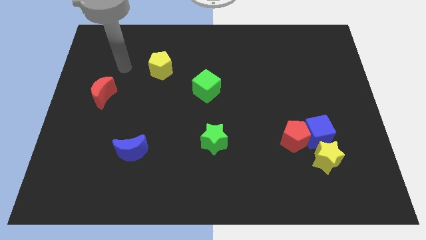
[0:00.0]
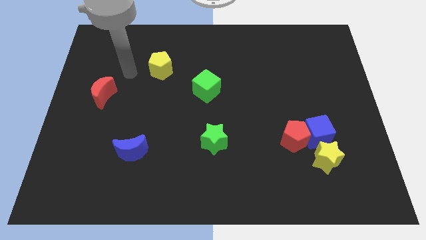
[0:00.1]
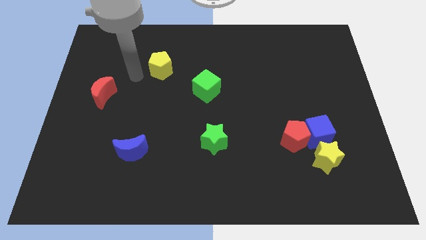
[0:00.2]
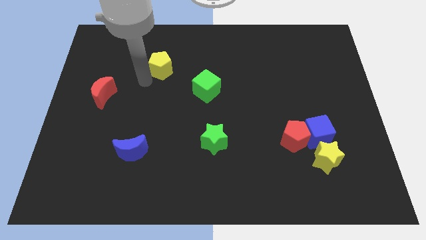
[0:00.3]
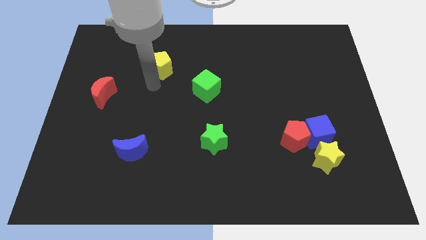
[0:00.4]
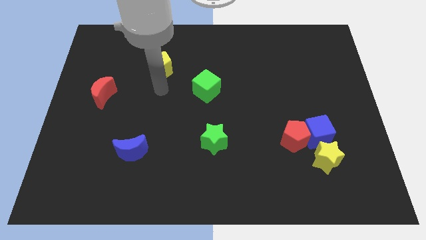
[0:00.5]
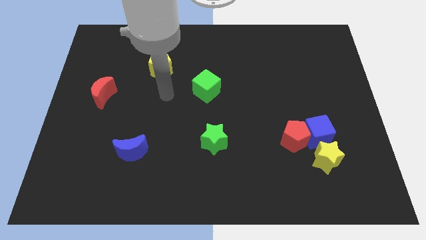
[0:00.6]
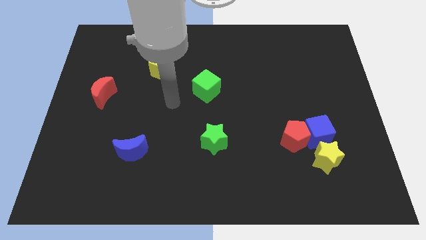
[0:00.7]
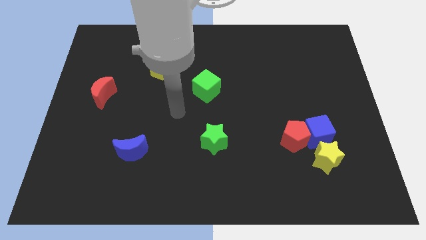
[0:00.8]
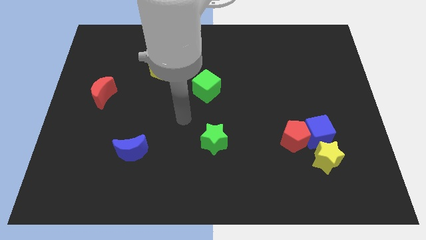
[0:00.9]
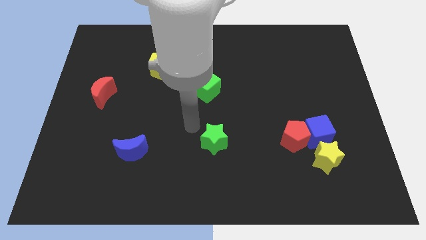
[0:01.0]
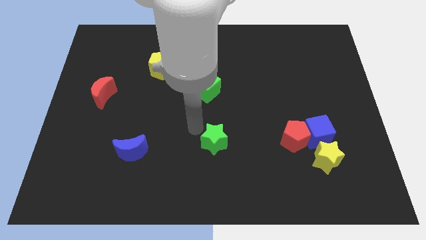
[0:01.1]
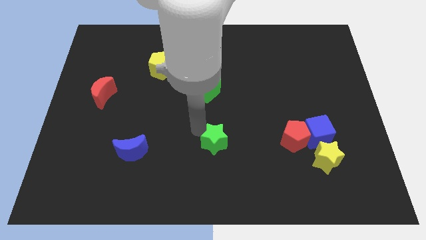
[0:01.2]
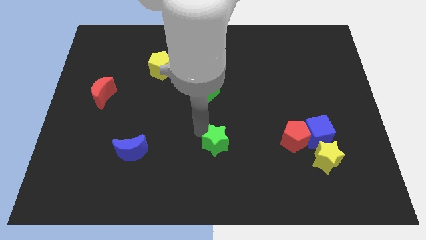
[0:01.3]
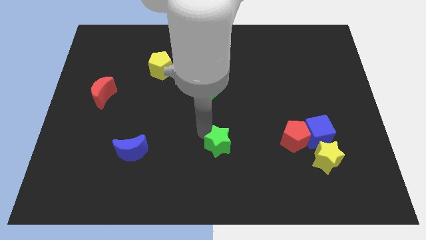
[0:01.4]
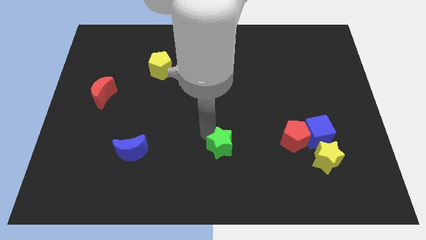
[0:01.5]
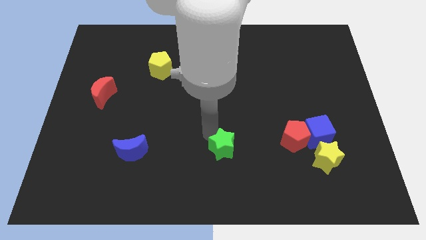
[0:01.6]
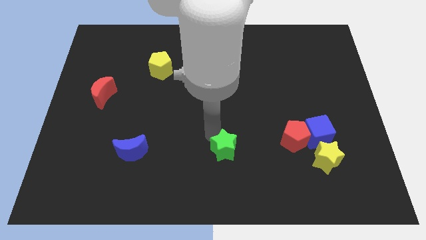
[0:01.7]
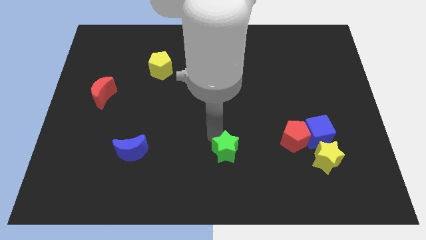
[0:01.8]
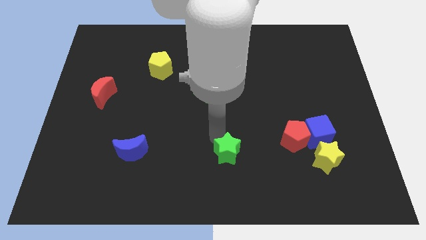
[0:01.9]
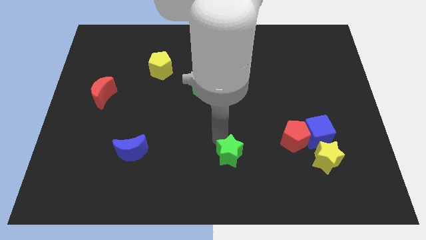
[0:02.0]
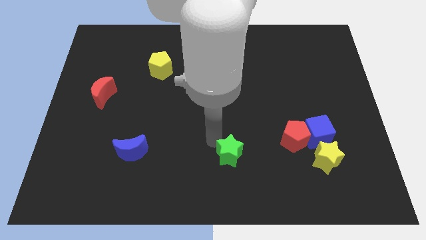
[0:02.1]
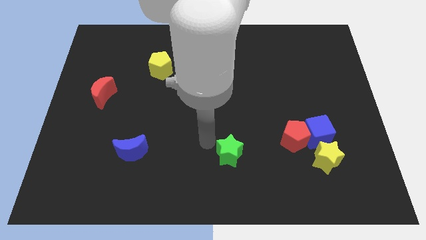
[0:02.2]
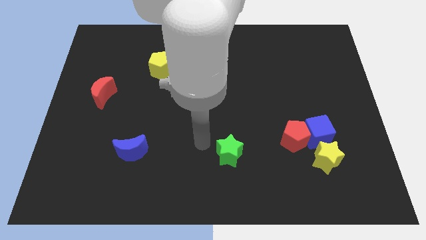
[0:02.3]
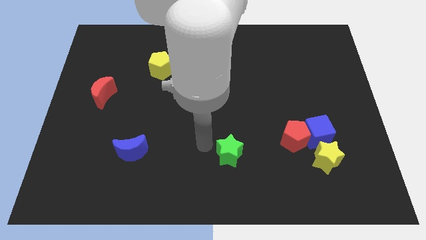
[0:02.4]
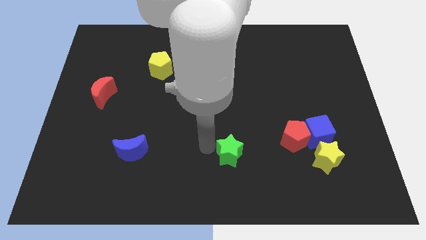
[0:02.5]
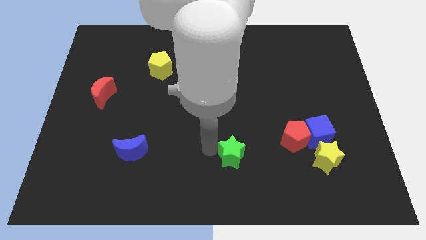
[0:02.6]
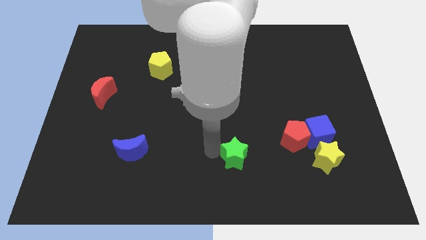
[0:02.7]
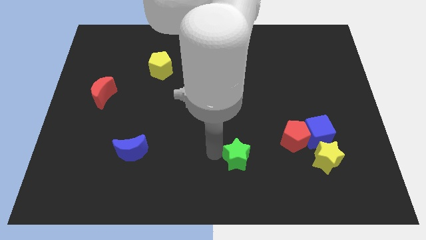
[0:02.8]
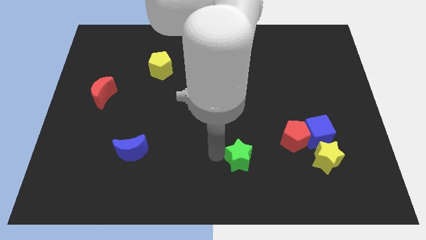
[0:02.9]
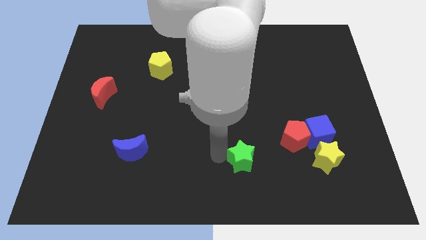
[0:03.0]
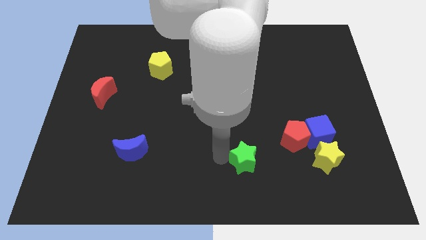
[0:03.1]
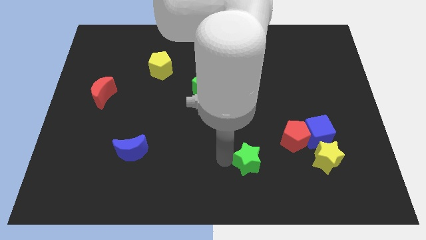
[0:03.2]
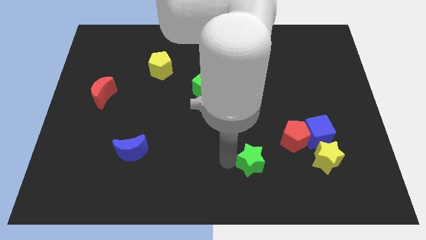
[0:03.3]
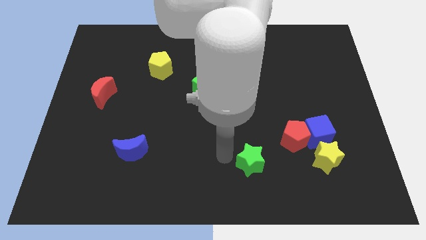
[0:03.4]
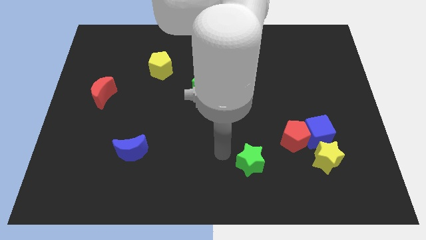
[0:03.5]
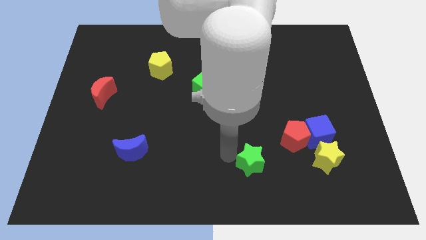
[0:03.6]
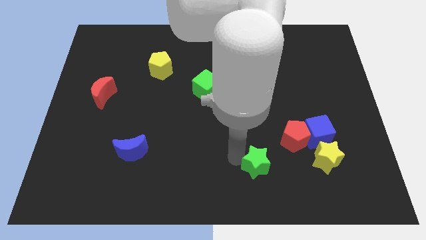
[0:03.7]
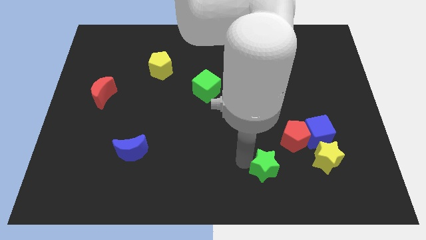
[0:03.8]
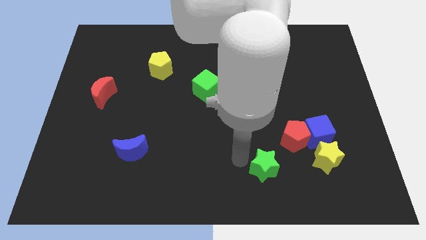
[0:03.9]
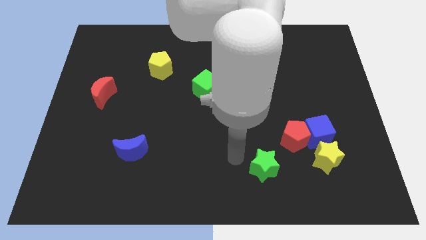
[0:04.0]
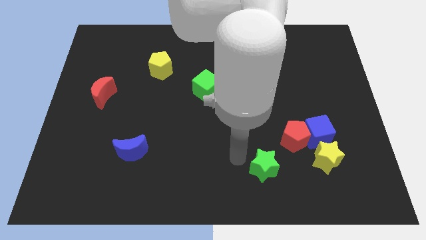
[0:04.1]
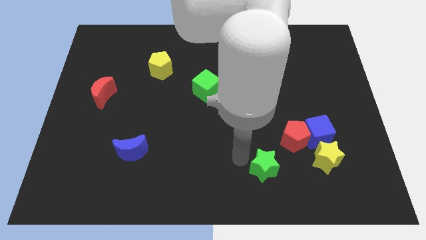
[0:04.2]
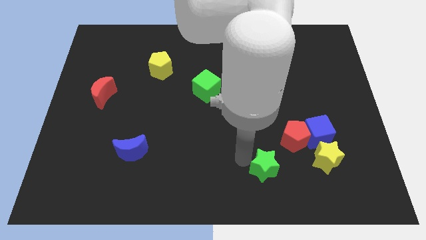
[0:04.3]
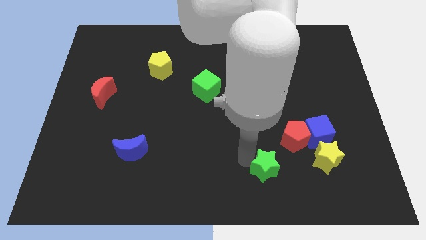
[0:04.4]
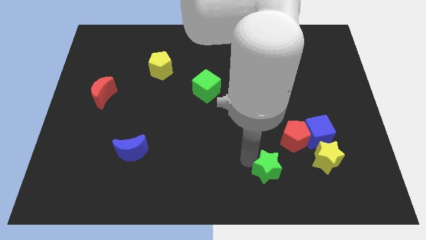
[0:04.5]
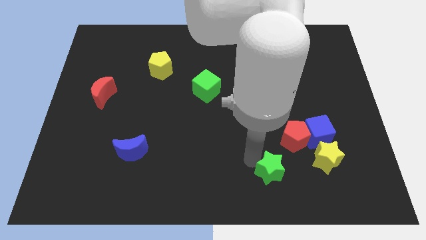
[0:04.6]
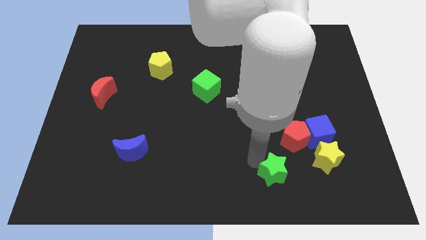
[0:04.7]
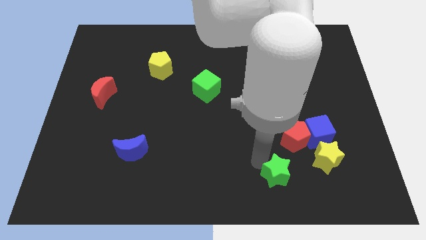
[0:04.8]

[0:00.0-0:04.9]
put the green star to the bottom side of the red pentagon

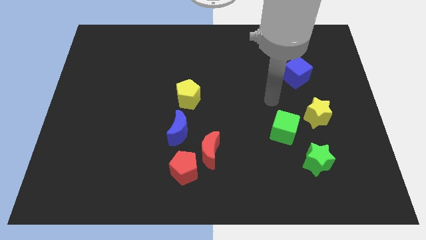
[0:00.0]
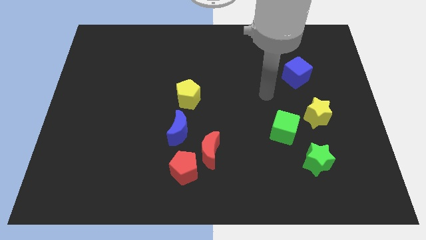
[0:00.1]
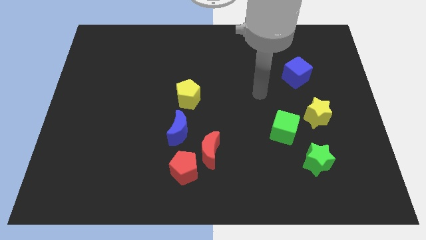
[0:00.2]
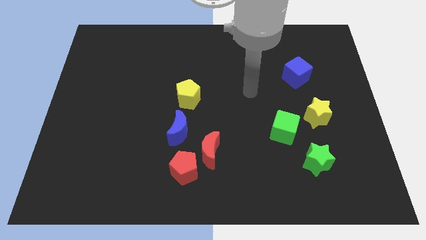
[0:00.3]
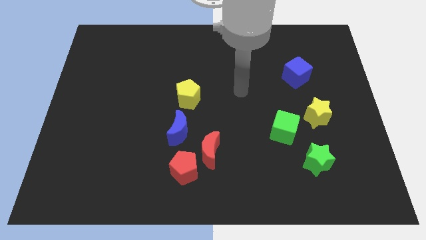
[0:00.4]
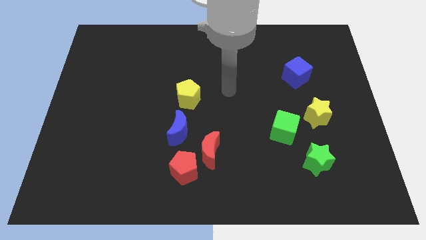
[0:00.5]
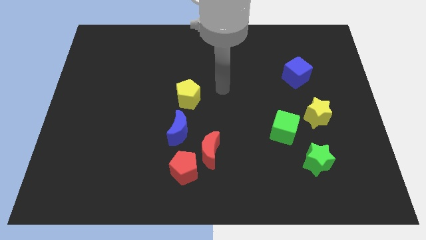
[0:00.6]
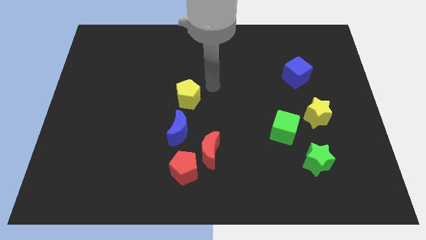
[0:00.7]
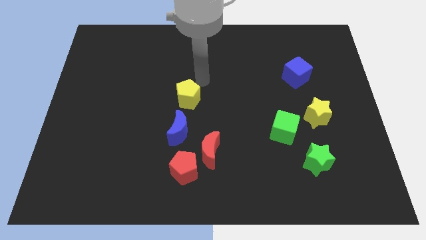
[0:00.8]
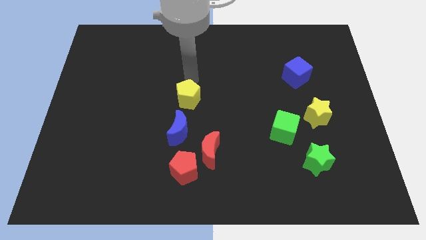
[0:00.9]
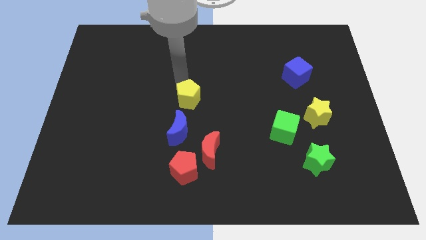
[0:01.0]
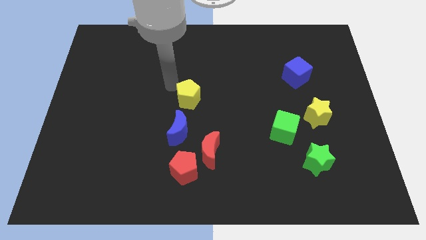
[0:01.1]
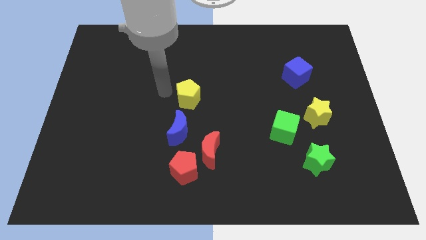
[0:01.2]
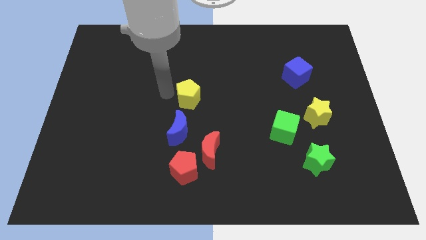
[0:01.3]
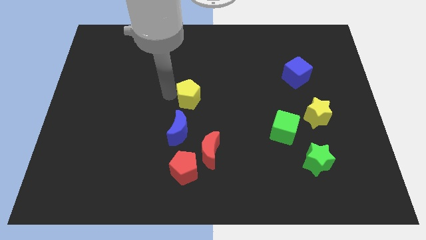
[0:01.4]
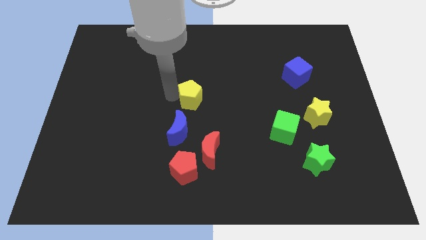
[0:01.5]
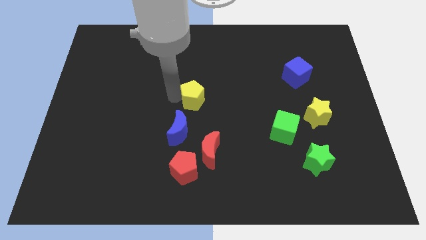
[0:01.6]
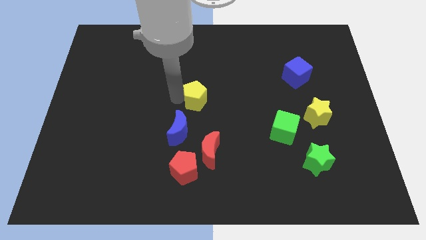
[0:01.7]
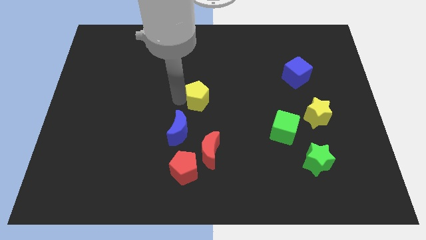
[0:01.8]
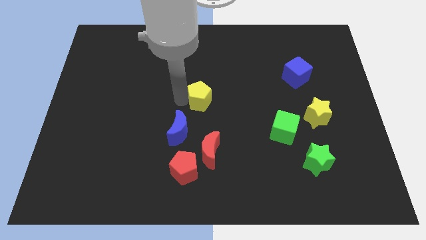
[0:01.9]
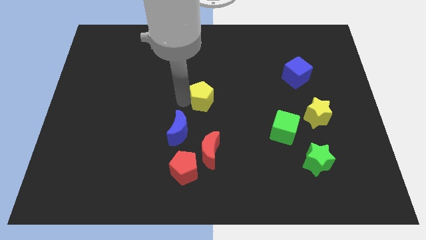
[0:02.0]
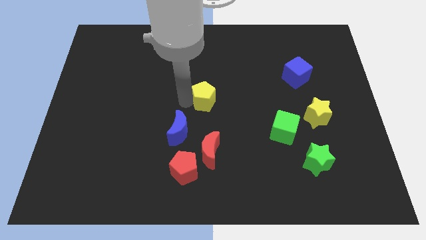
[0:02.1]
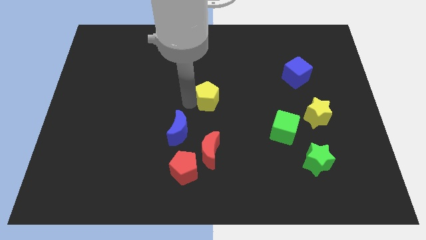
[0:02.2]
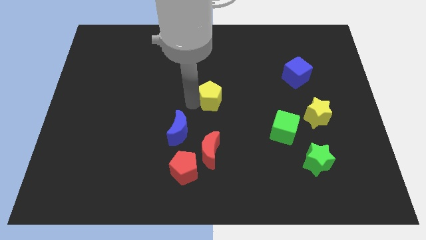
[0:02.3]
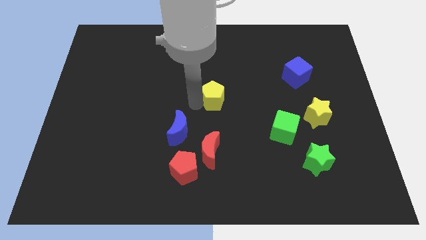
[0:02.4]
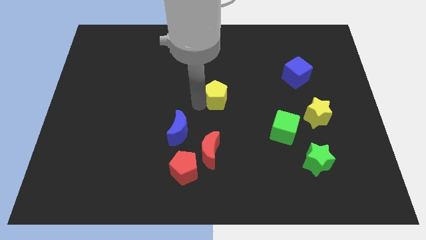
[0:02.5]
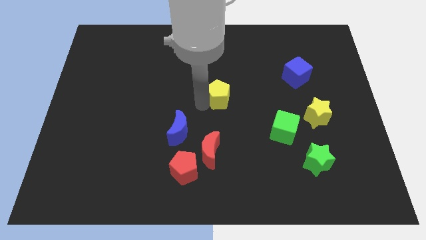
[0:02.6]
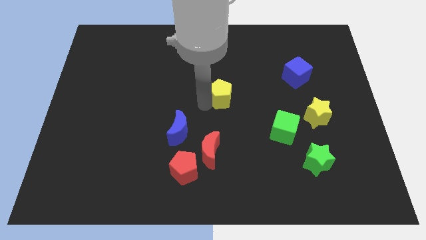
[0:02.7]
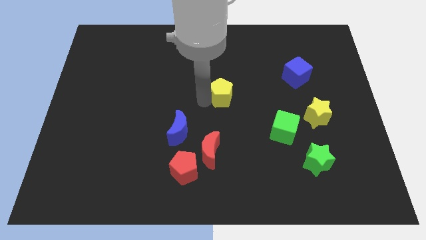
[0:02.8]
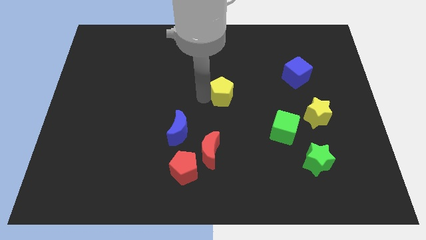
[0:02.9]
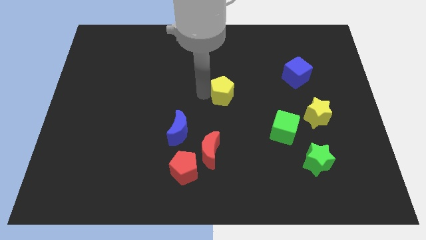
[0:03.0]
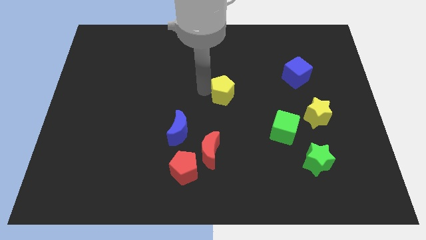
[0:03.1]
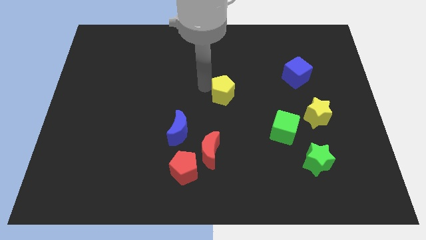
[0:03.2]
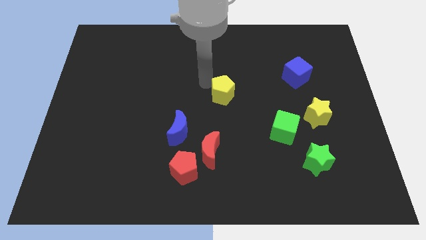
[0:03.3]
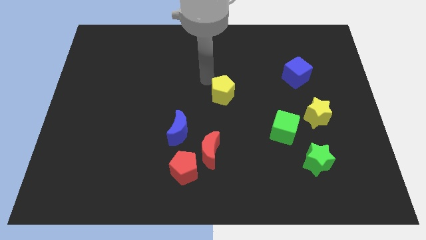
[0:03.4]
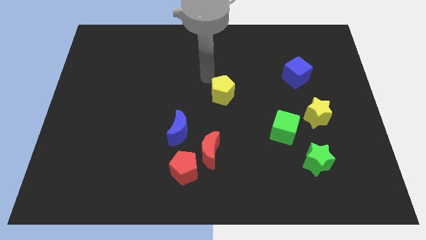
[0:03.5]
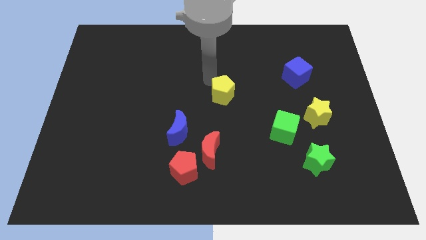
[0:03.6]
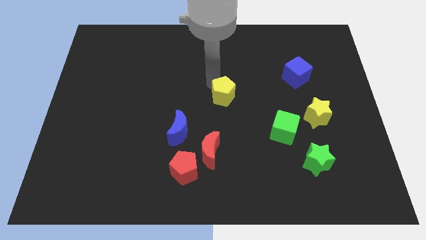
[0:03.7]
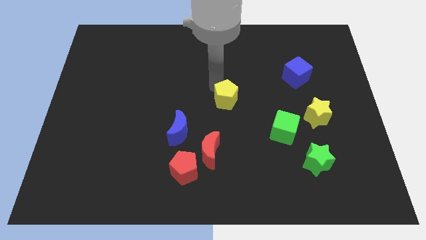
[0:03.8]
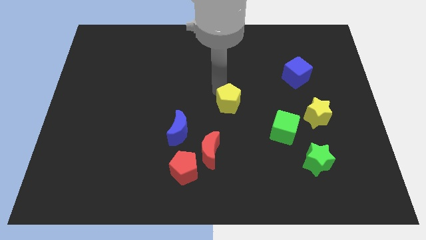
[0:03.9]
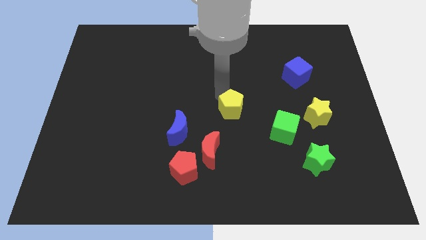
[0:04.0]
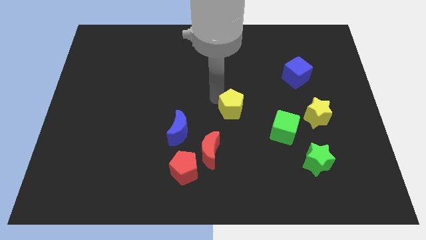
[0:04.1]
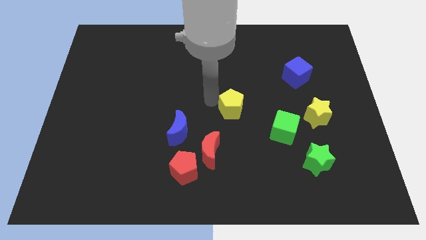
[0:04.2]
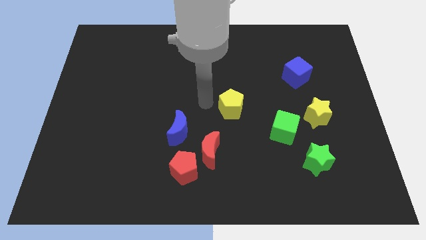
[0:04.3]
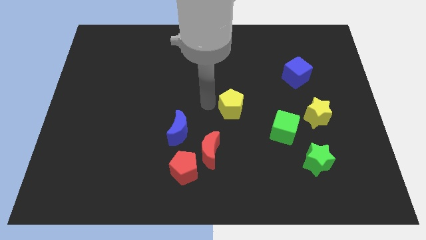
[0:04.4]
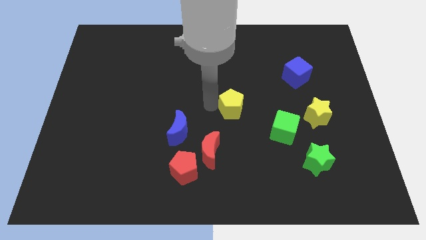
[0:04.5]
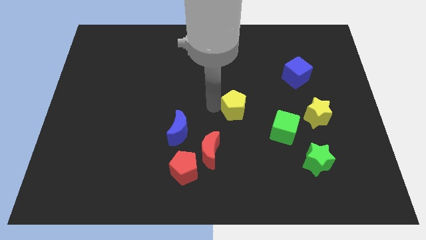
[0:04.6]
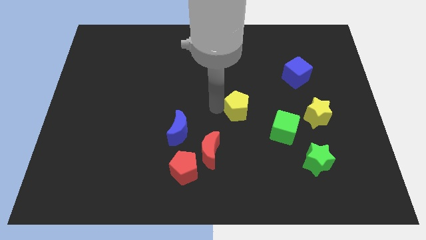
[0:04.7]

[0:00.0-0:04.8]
push the yellow pentagon to the top left side of the green cube
